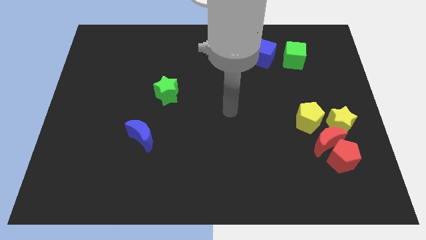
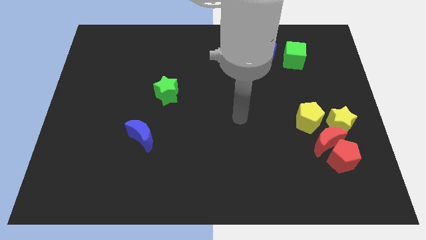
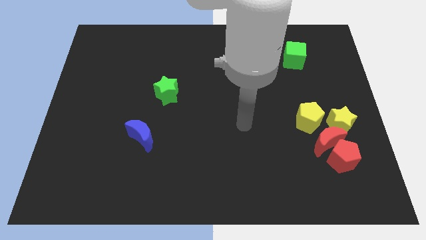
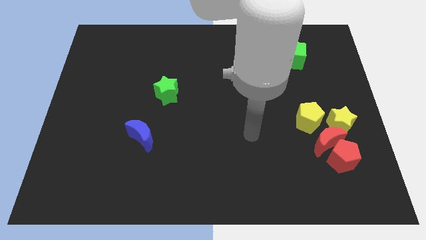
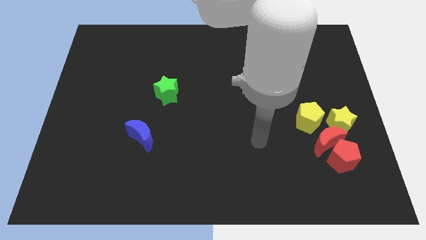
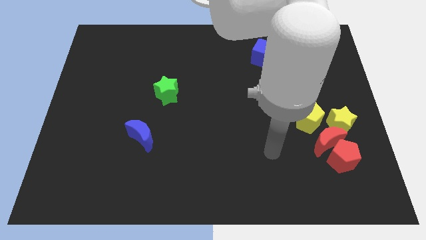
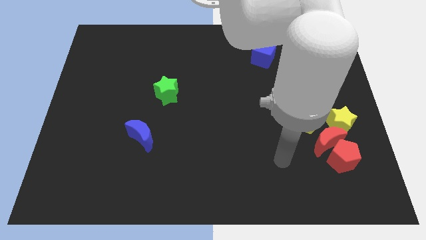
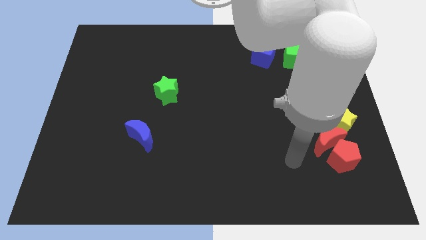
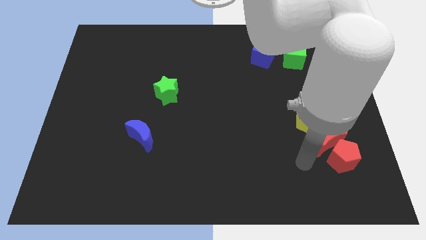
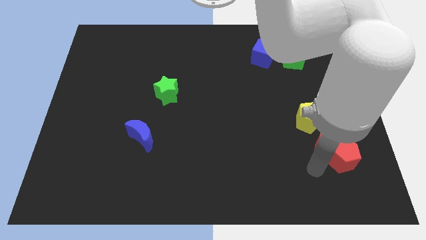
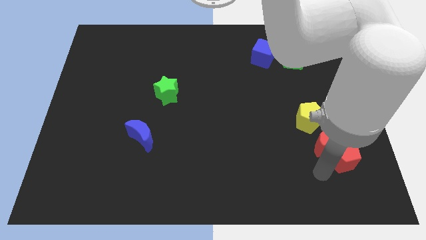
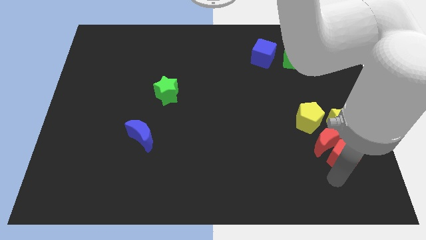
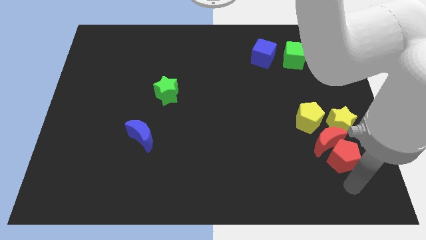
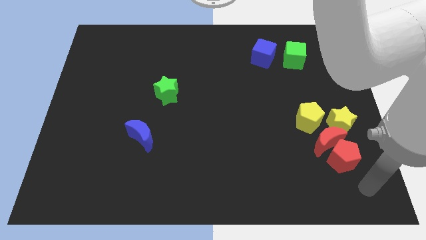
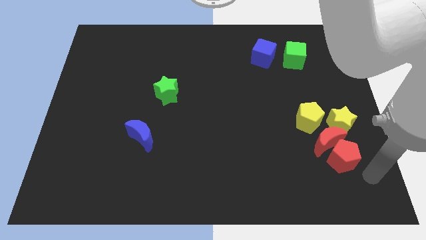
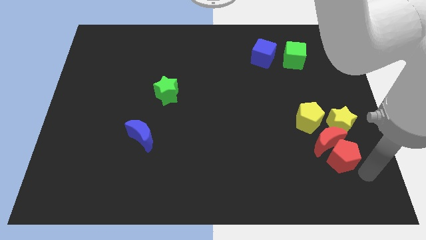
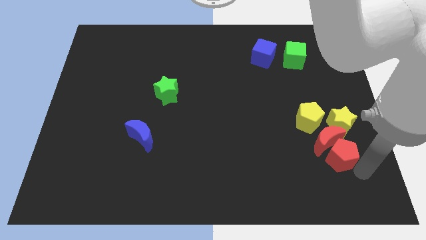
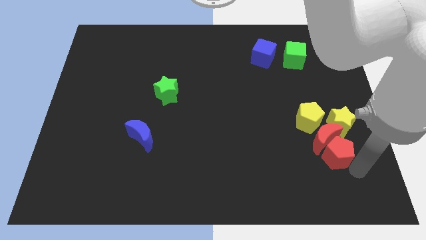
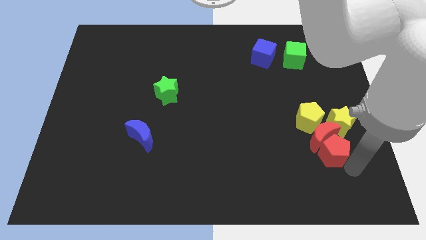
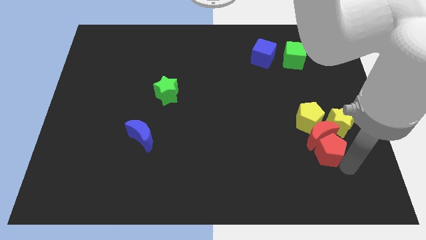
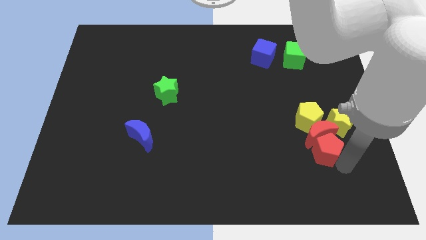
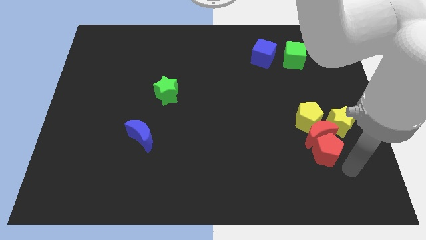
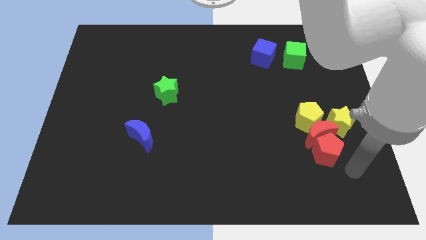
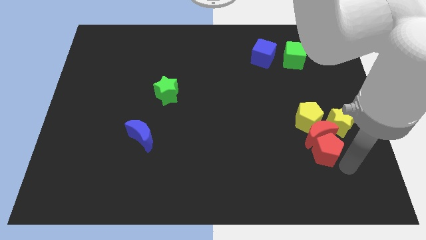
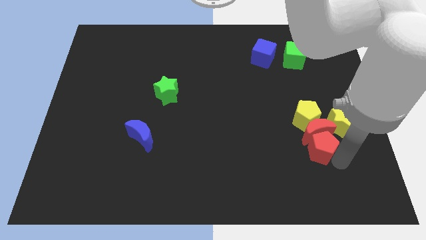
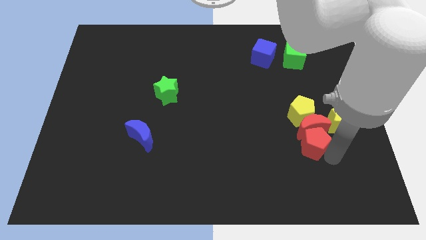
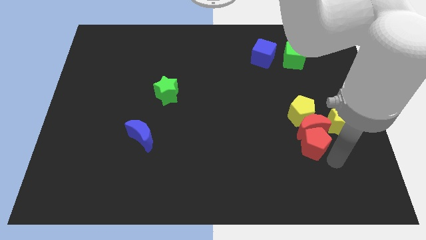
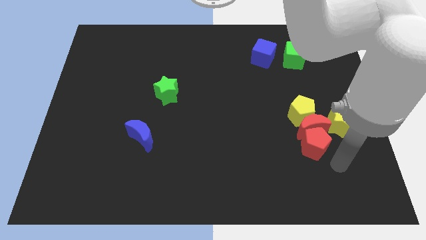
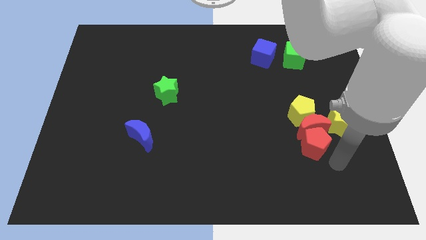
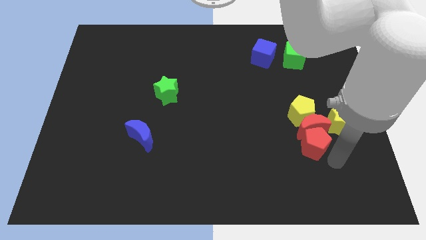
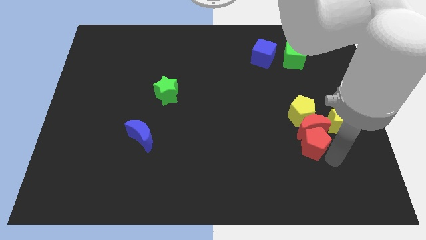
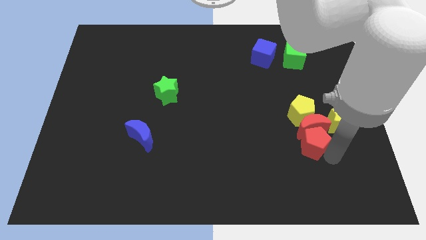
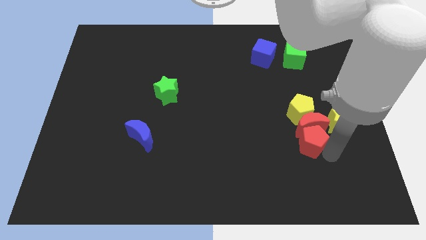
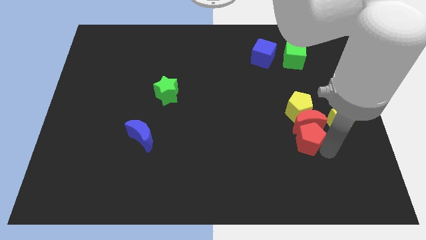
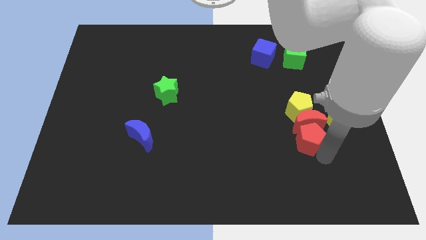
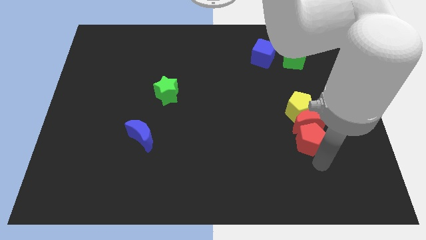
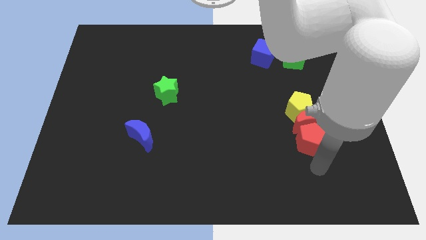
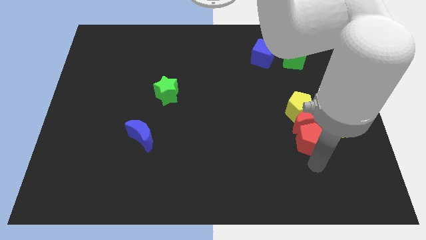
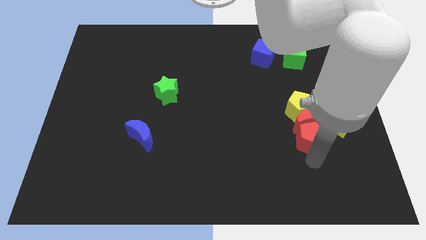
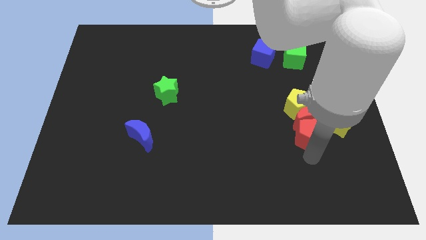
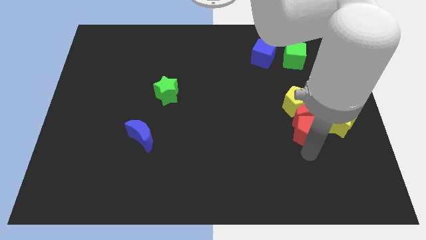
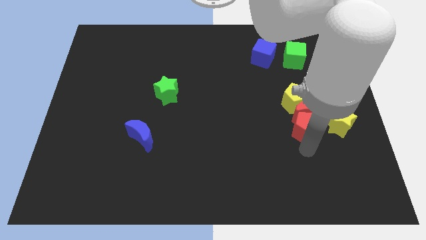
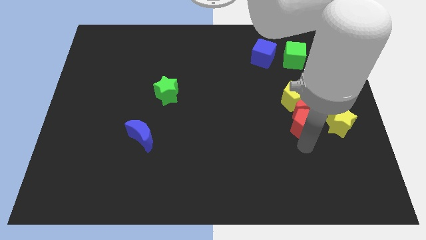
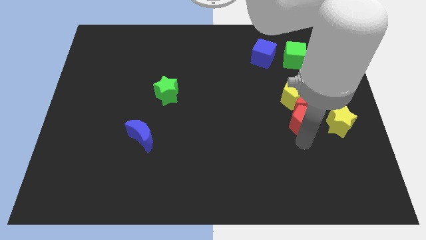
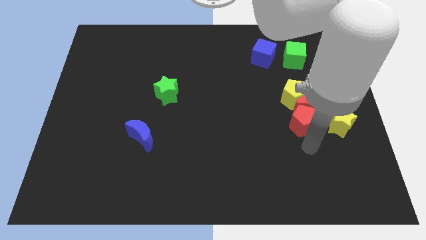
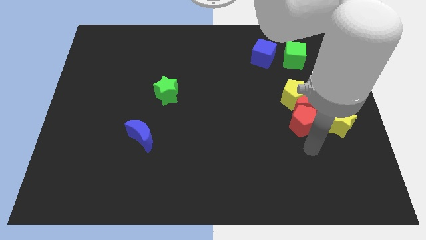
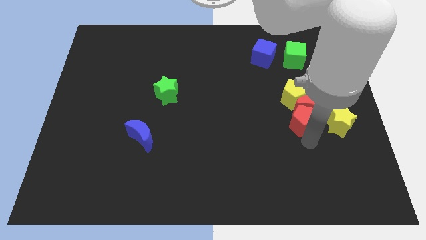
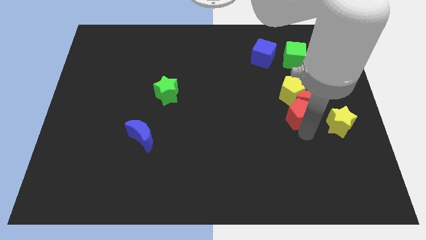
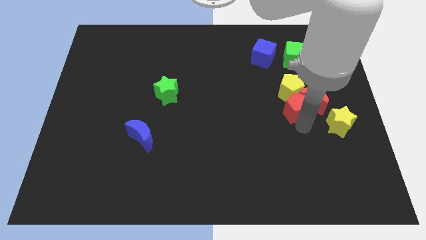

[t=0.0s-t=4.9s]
move the red pentagon to the yellow pentagon

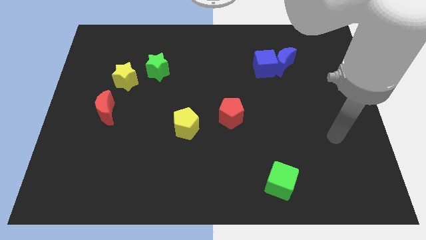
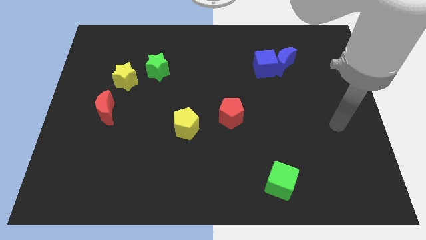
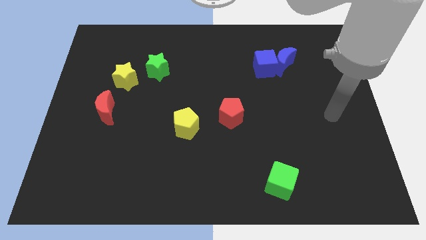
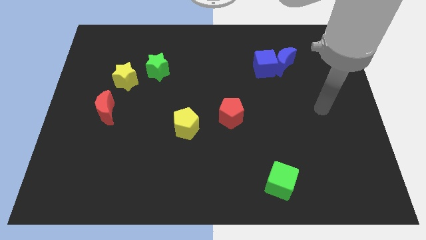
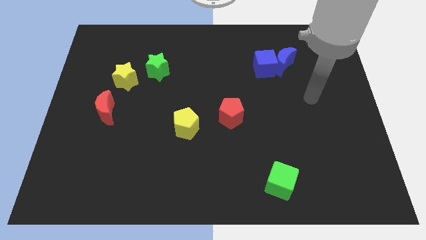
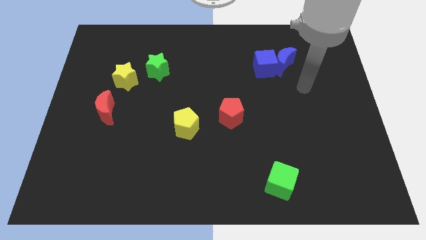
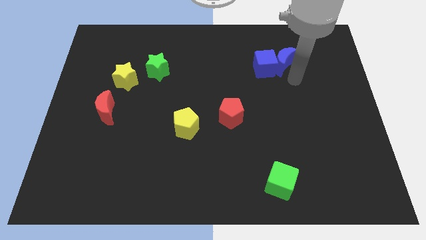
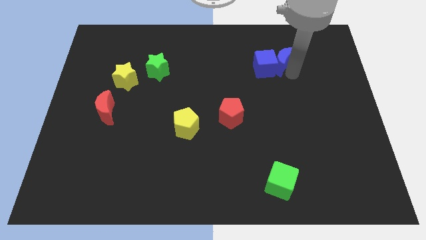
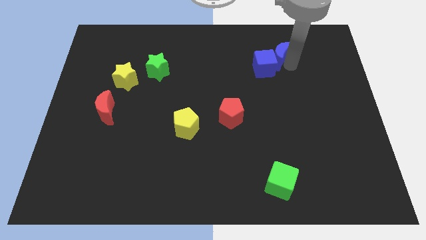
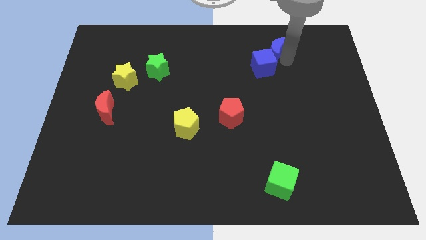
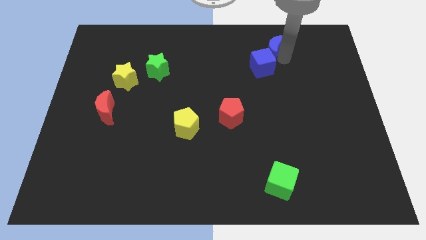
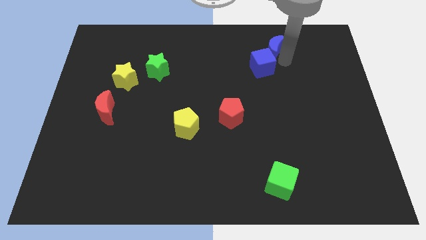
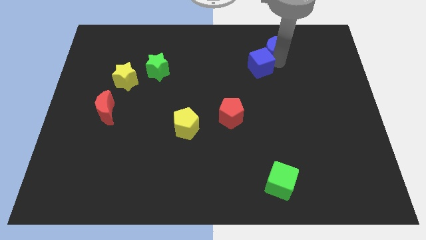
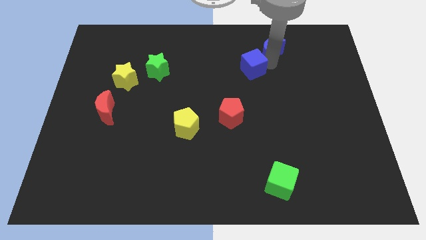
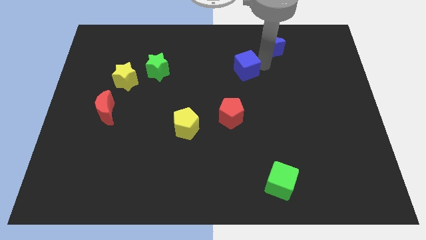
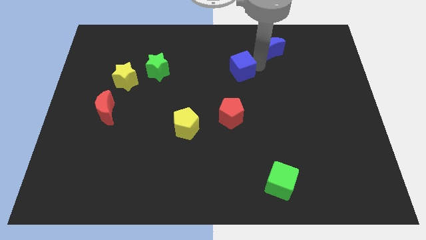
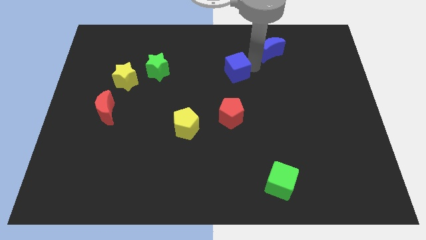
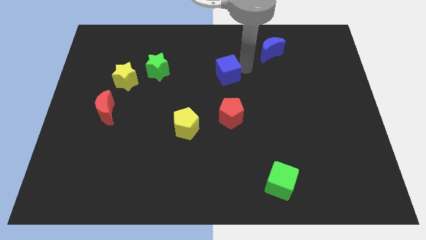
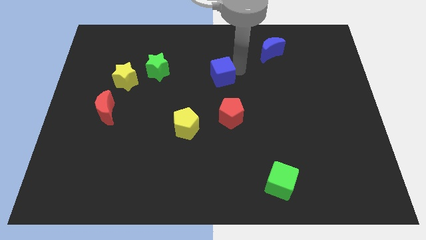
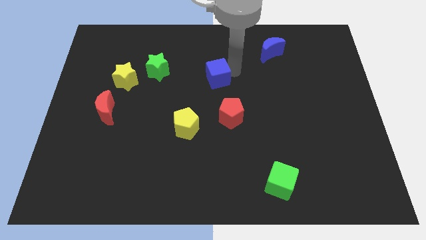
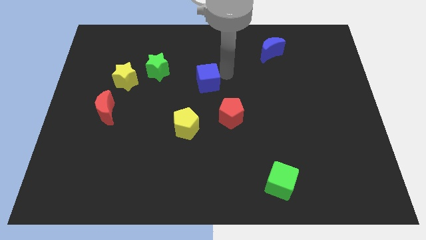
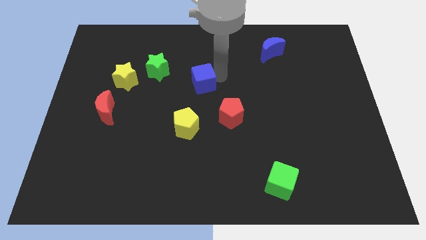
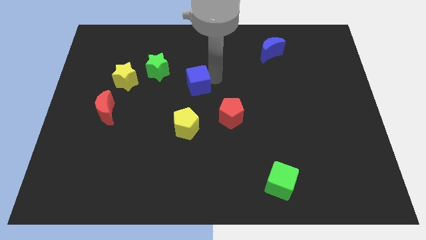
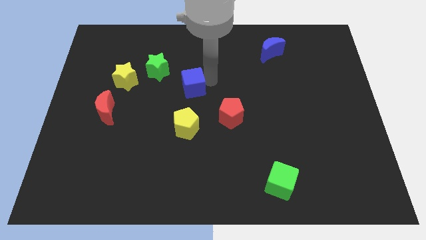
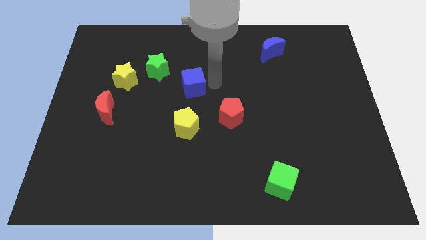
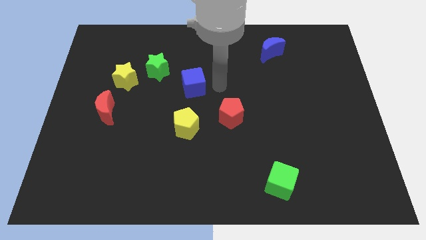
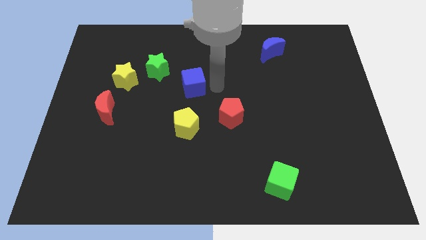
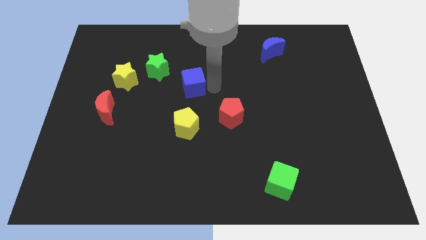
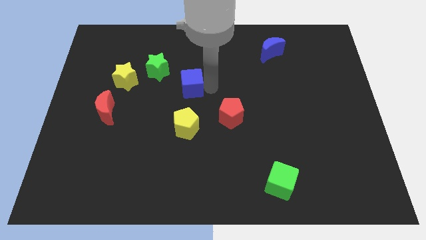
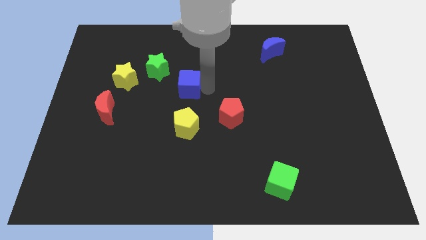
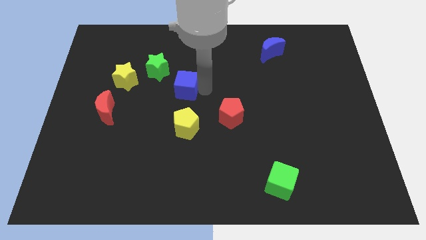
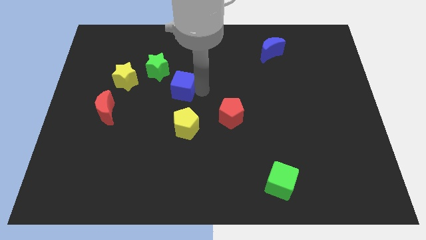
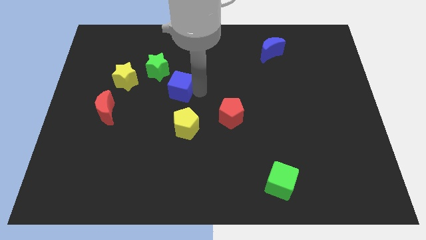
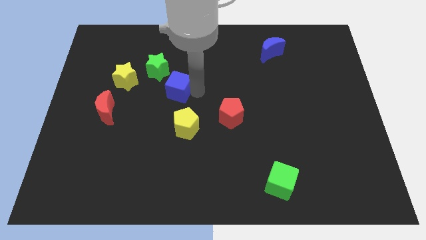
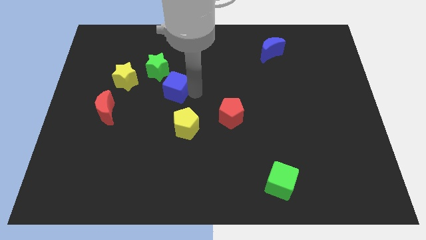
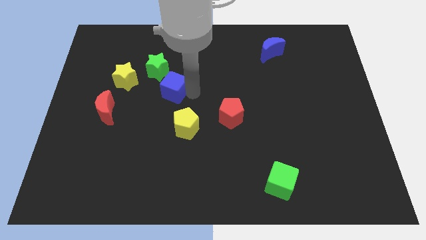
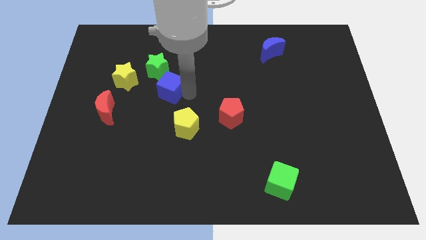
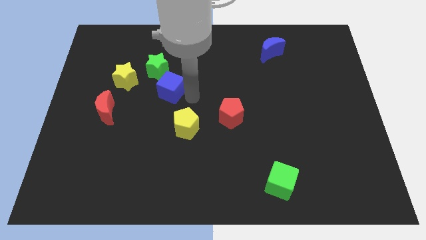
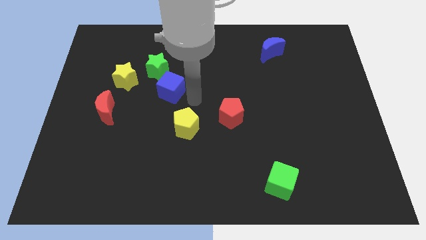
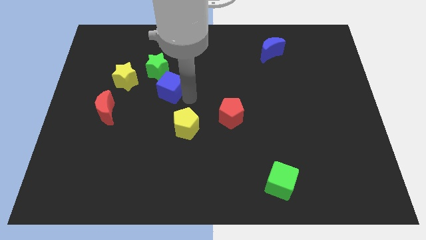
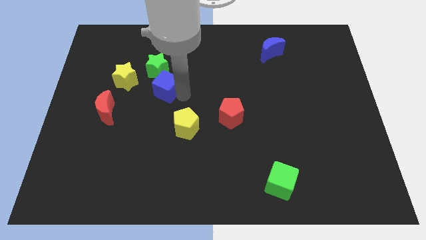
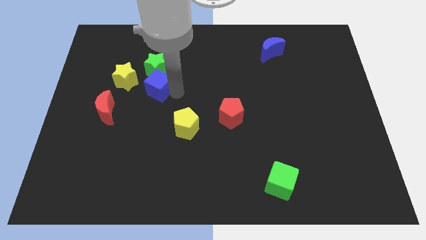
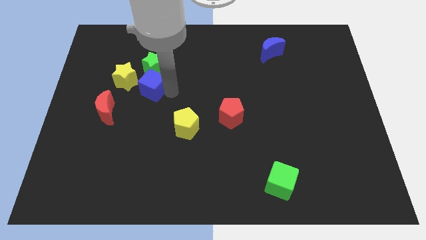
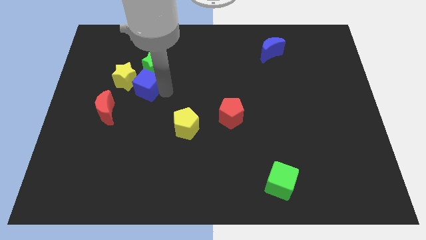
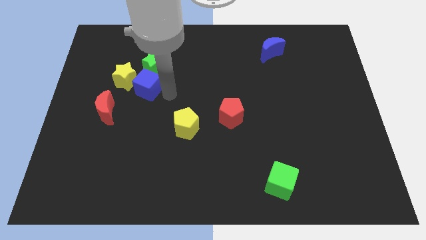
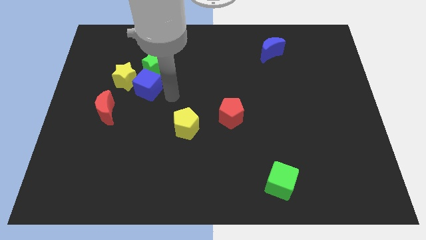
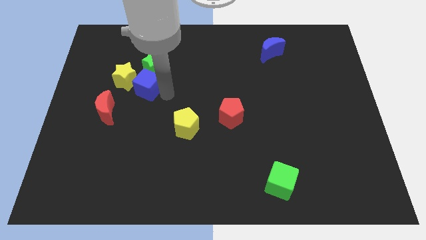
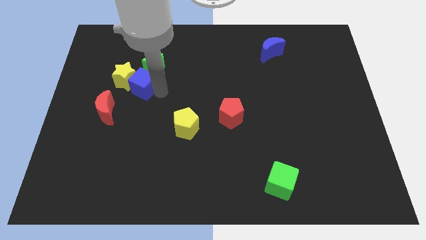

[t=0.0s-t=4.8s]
move the blue cube to the yellow star
